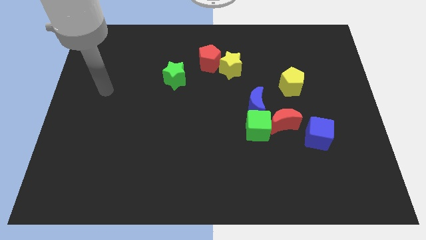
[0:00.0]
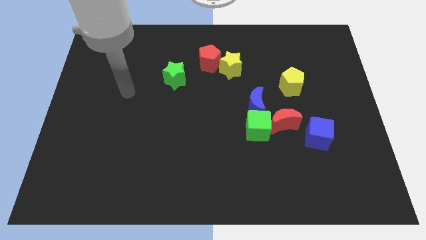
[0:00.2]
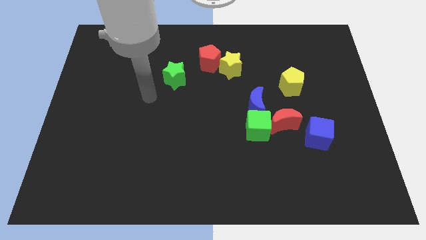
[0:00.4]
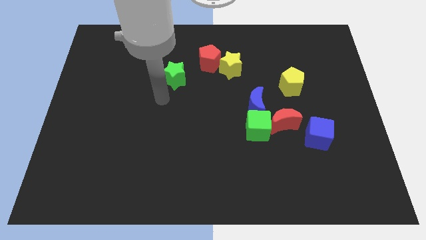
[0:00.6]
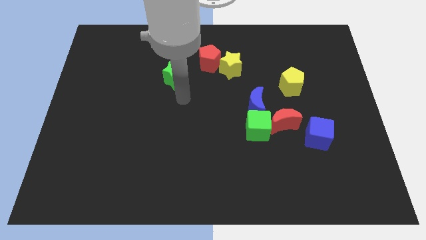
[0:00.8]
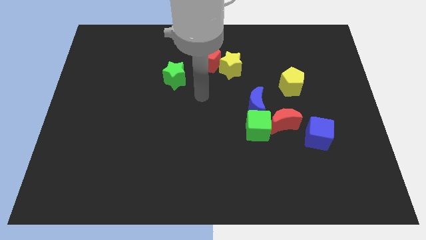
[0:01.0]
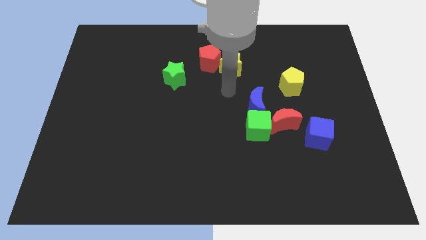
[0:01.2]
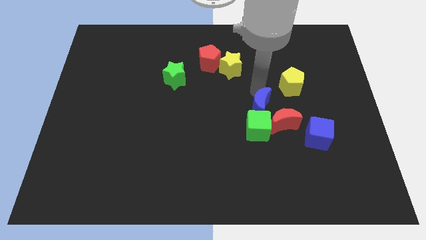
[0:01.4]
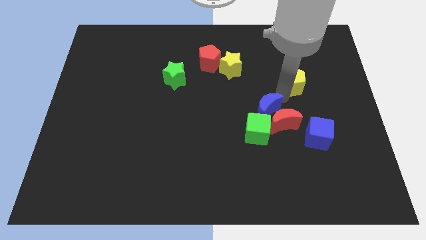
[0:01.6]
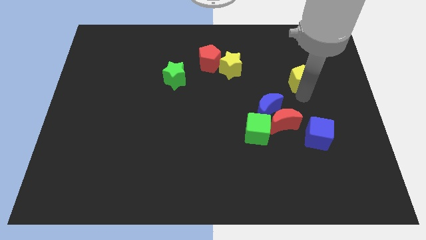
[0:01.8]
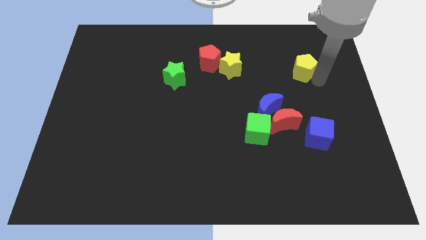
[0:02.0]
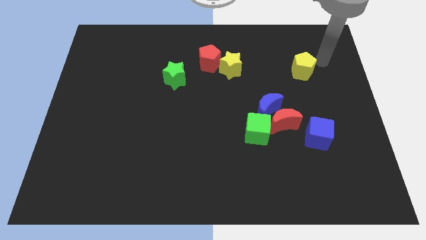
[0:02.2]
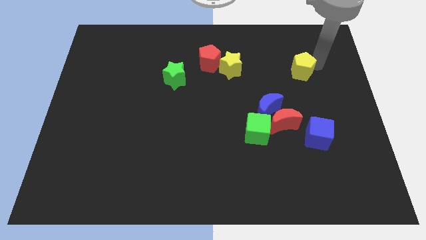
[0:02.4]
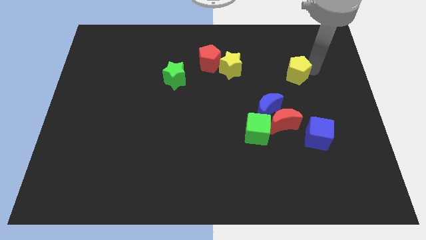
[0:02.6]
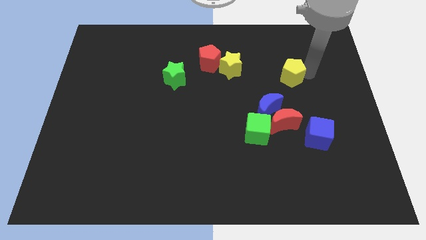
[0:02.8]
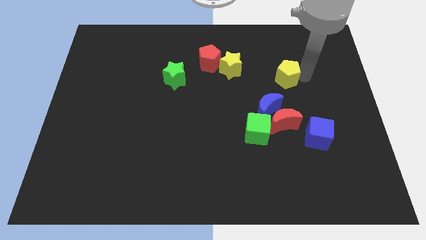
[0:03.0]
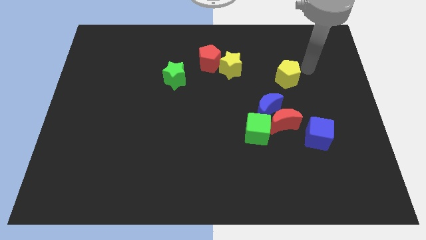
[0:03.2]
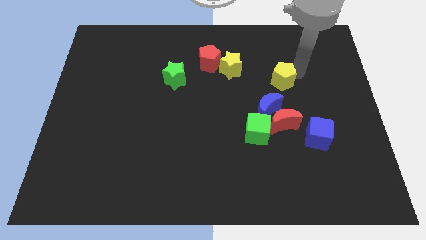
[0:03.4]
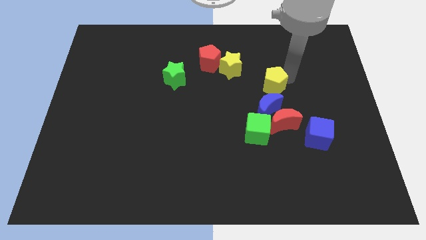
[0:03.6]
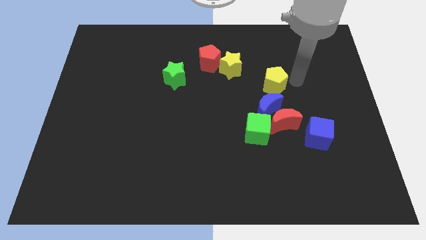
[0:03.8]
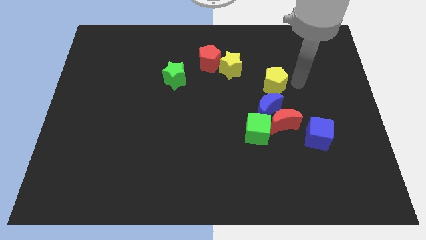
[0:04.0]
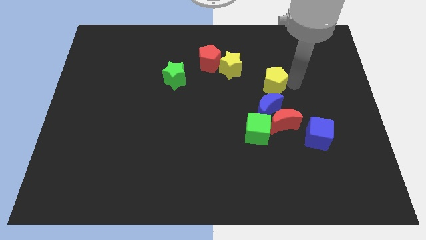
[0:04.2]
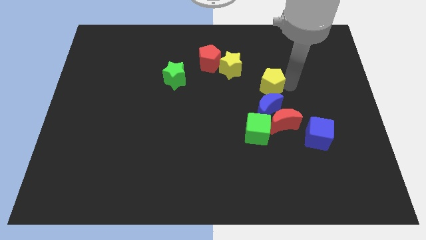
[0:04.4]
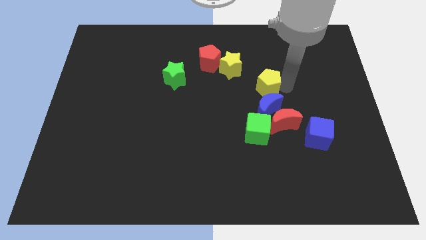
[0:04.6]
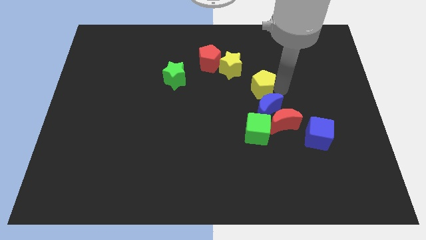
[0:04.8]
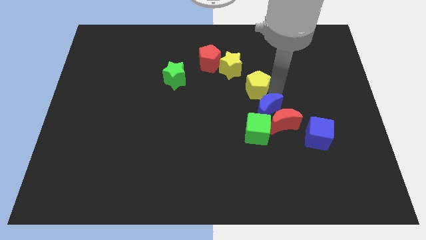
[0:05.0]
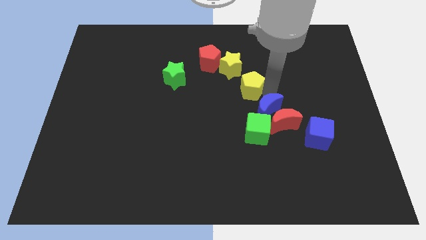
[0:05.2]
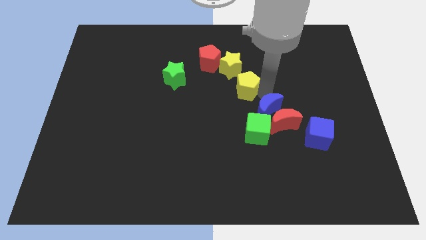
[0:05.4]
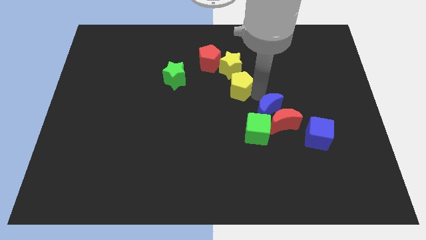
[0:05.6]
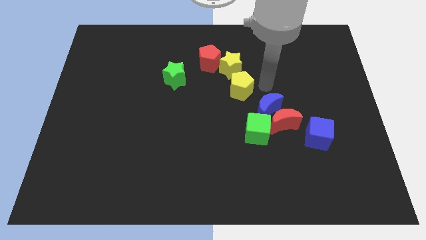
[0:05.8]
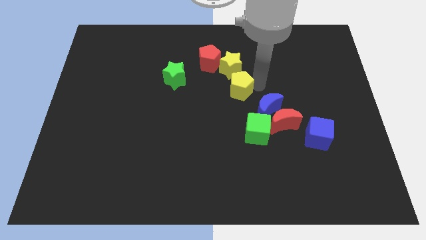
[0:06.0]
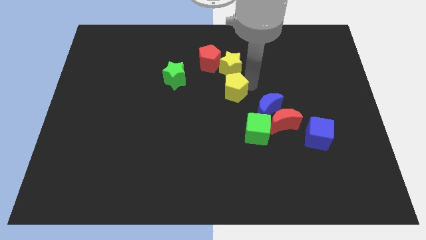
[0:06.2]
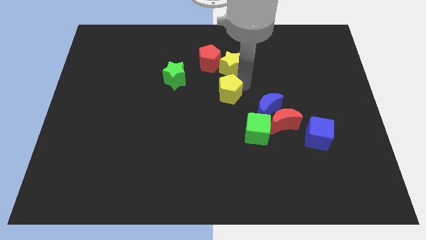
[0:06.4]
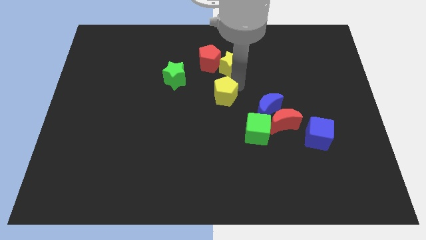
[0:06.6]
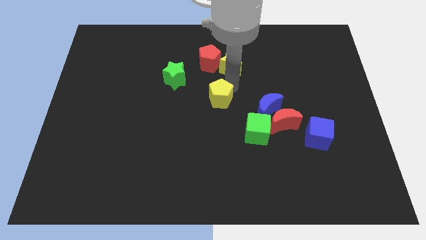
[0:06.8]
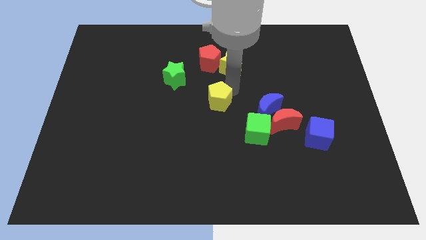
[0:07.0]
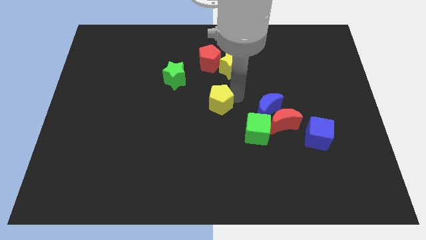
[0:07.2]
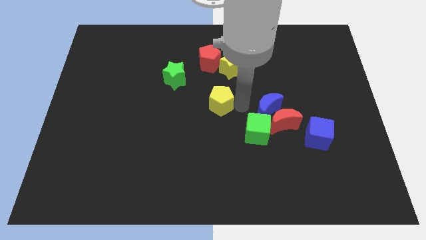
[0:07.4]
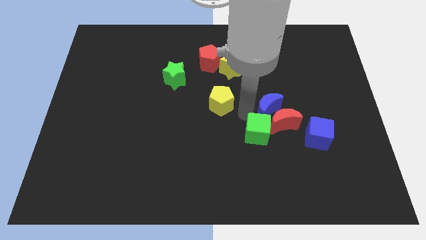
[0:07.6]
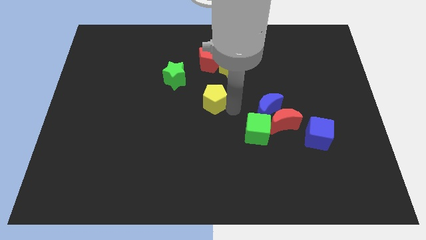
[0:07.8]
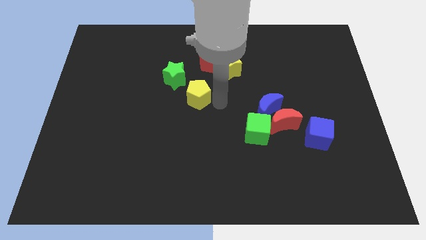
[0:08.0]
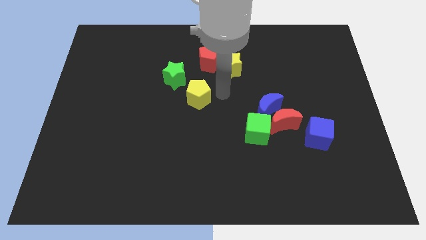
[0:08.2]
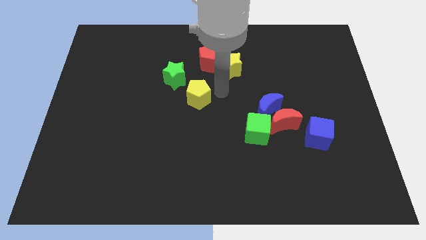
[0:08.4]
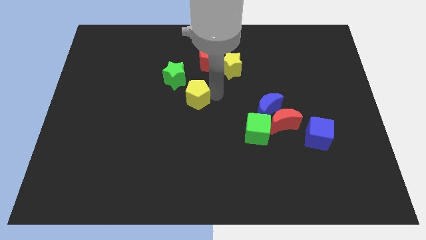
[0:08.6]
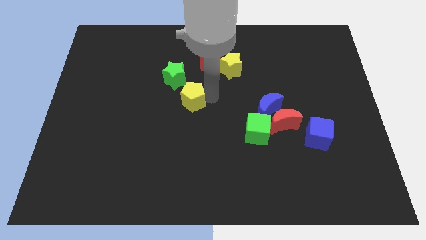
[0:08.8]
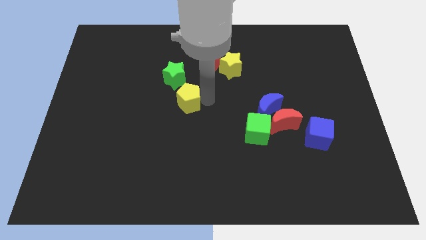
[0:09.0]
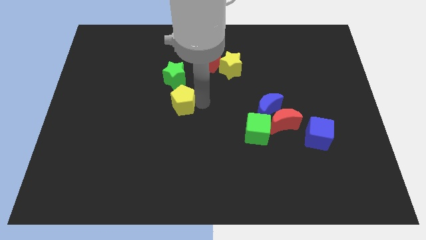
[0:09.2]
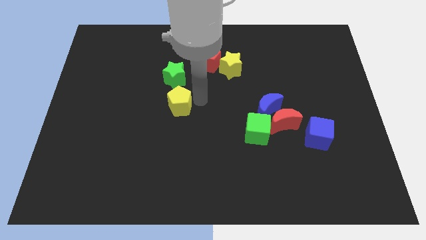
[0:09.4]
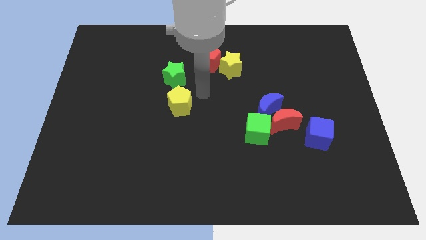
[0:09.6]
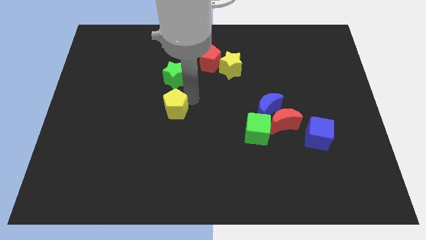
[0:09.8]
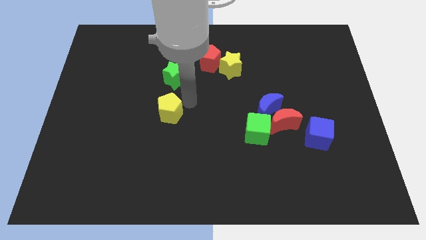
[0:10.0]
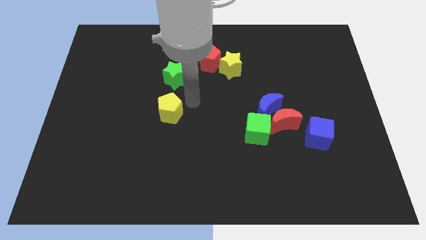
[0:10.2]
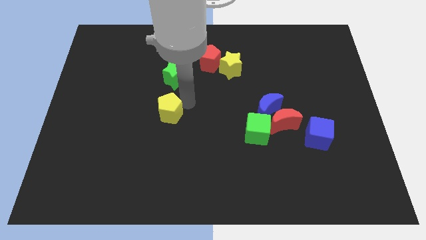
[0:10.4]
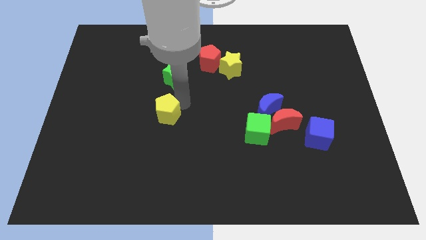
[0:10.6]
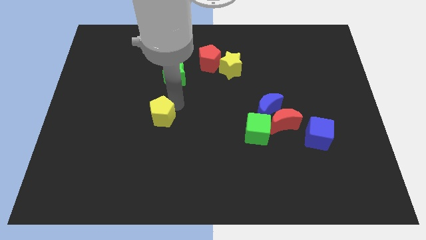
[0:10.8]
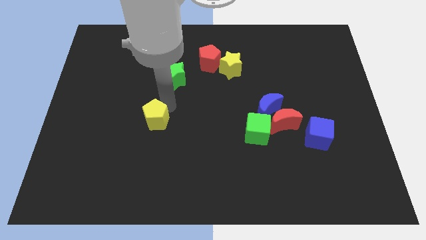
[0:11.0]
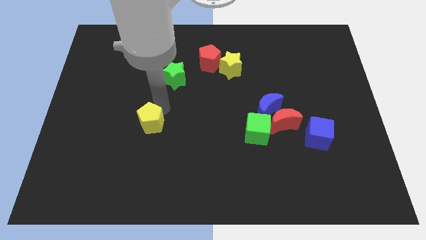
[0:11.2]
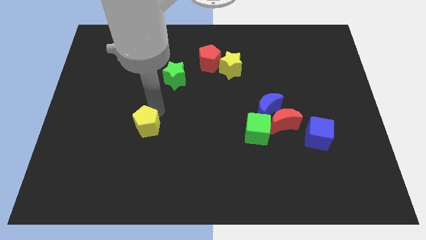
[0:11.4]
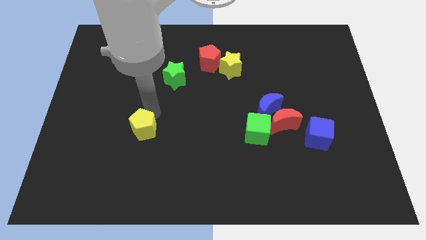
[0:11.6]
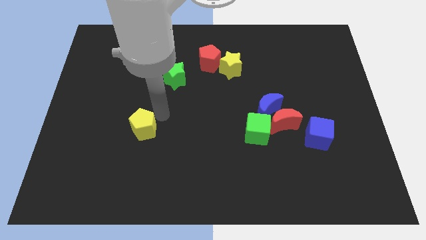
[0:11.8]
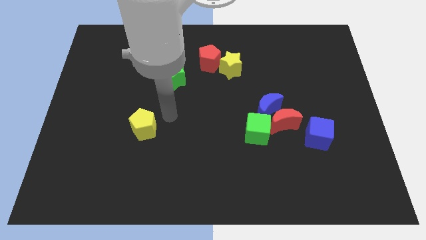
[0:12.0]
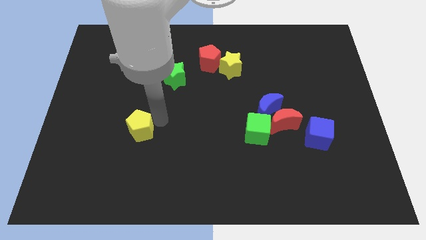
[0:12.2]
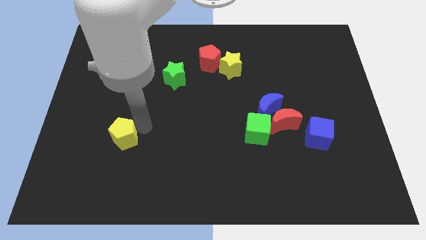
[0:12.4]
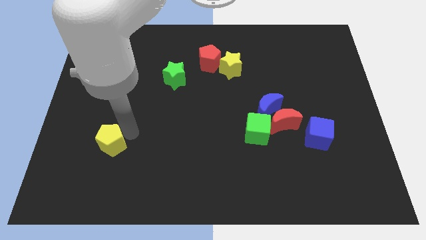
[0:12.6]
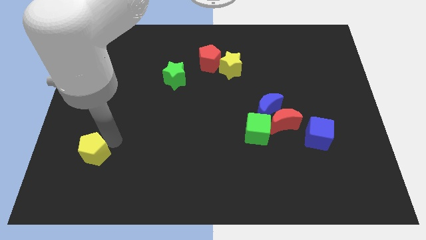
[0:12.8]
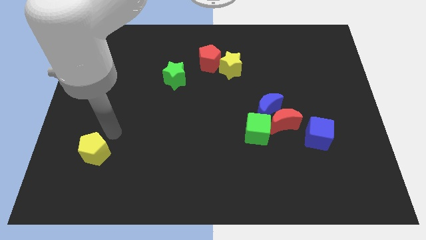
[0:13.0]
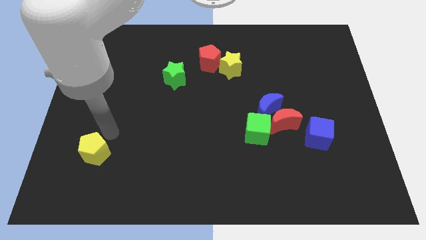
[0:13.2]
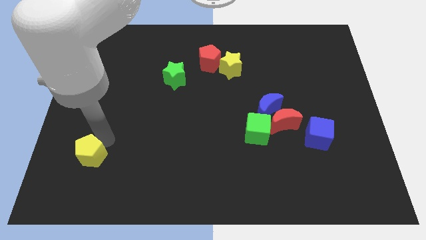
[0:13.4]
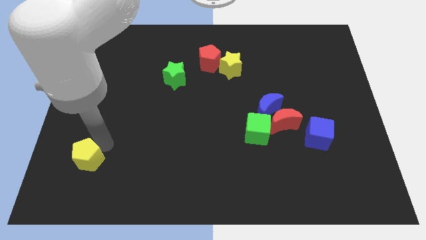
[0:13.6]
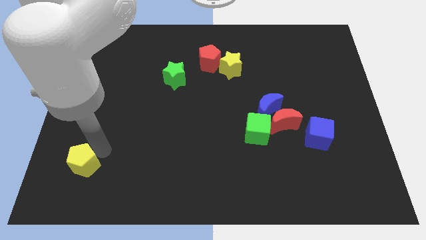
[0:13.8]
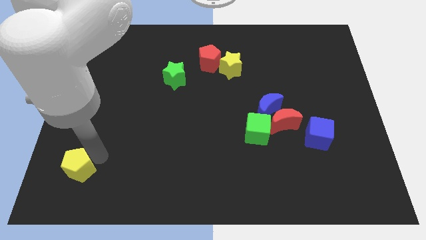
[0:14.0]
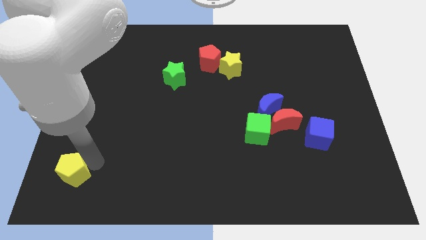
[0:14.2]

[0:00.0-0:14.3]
push the yellow pentagon to the lower left corner
